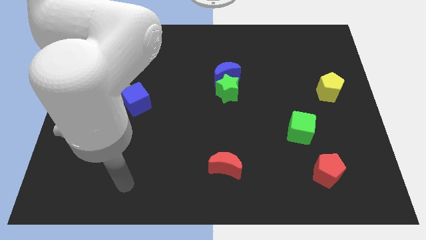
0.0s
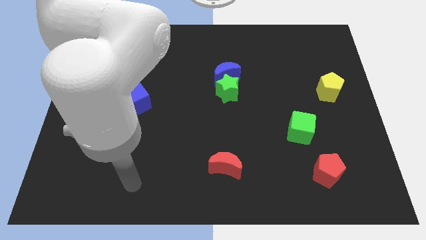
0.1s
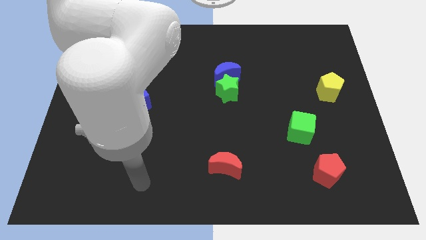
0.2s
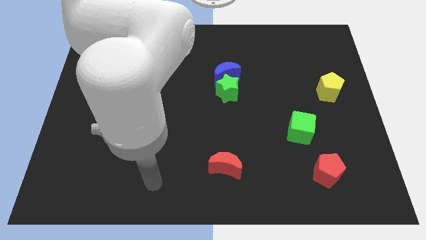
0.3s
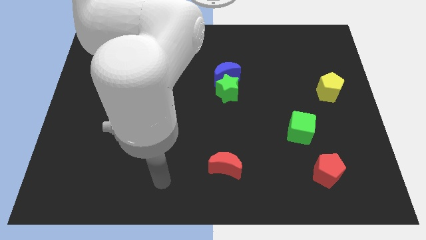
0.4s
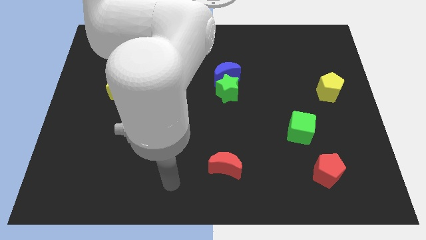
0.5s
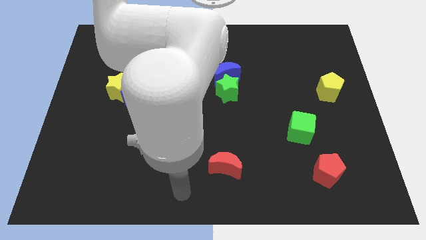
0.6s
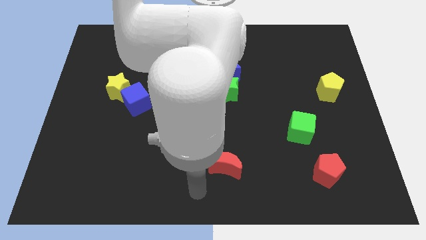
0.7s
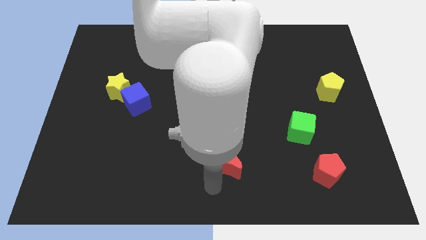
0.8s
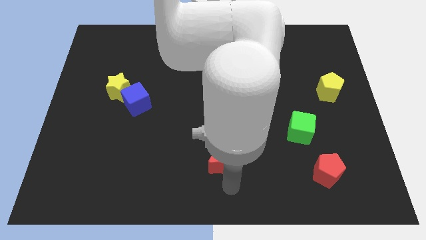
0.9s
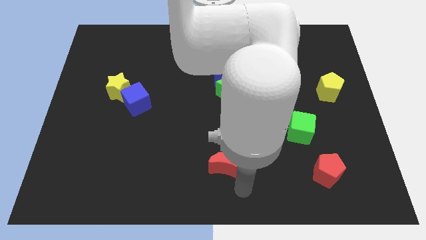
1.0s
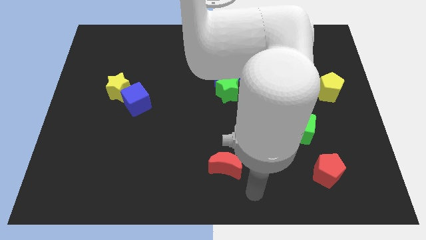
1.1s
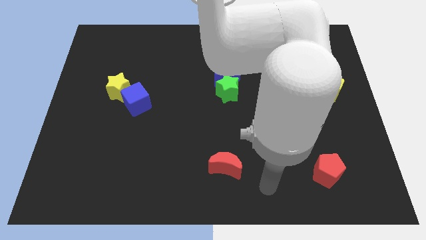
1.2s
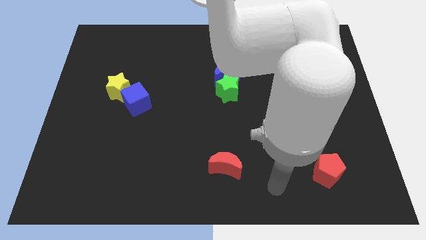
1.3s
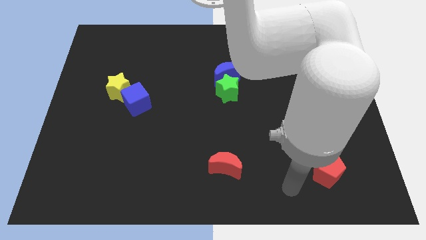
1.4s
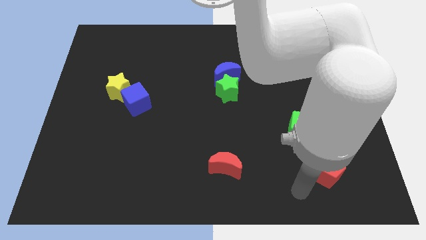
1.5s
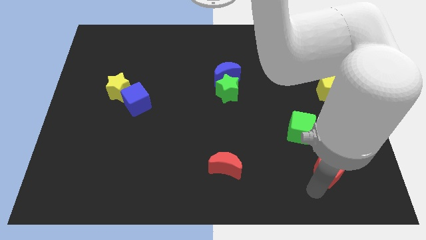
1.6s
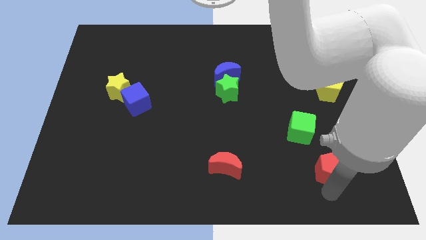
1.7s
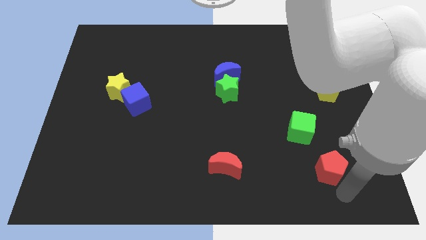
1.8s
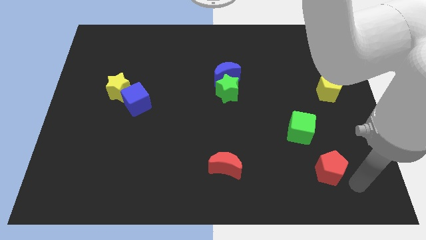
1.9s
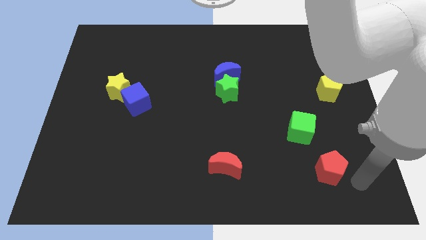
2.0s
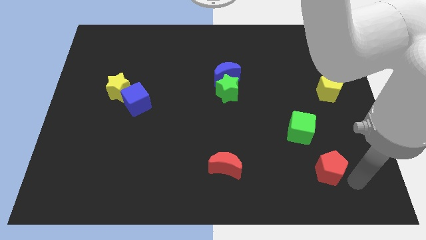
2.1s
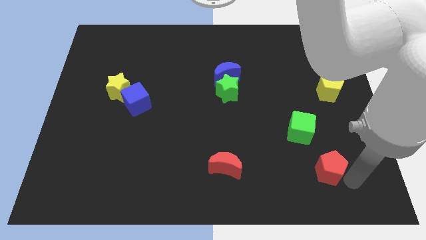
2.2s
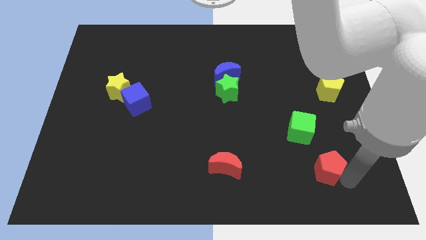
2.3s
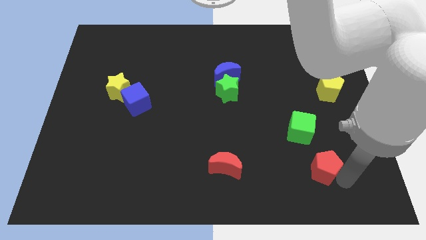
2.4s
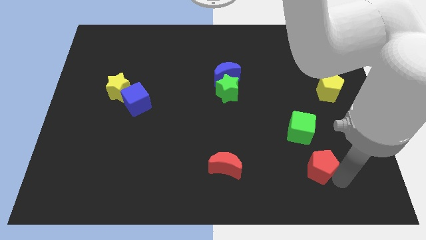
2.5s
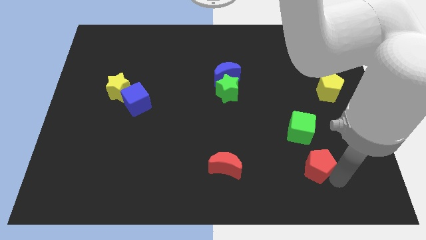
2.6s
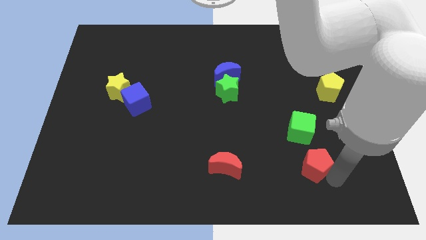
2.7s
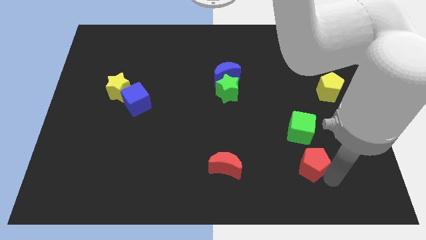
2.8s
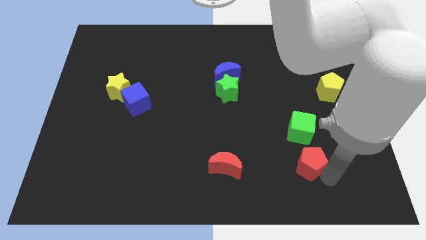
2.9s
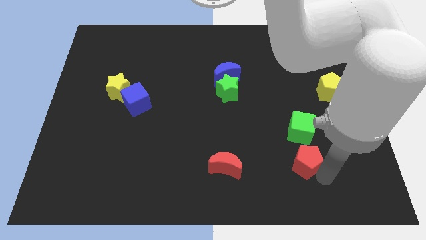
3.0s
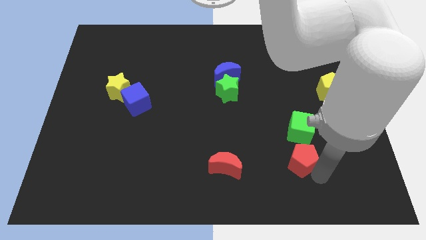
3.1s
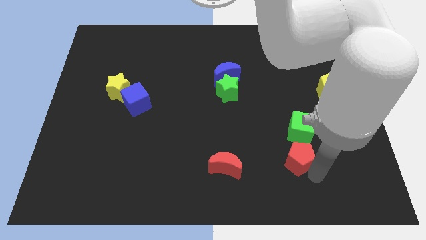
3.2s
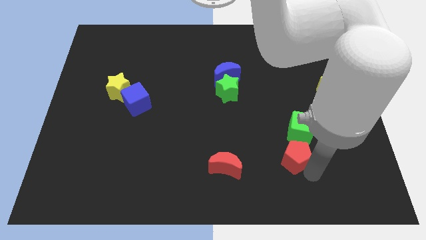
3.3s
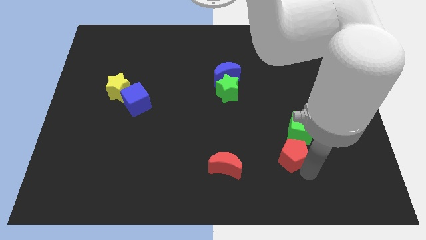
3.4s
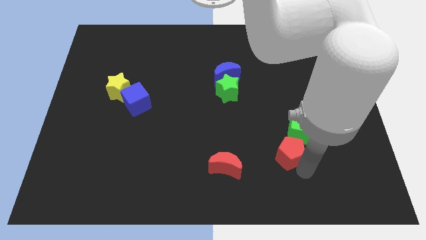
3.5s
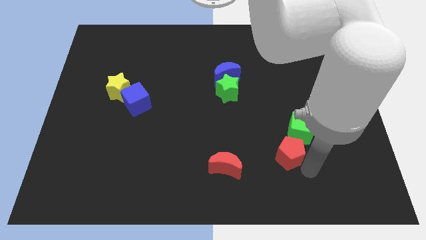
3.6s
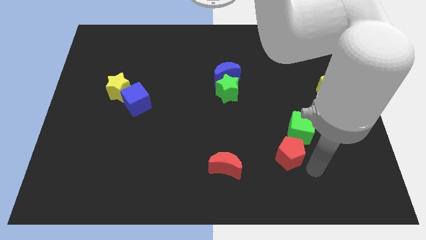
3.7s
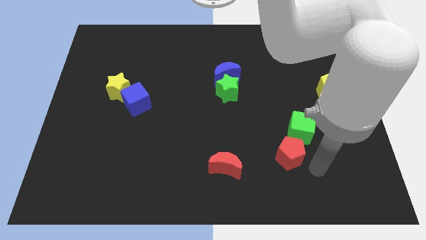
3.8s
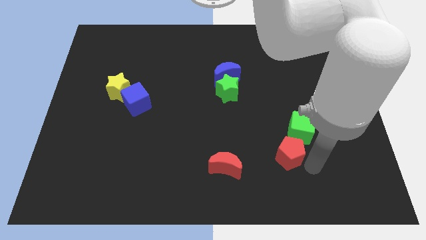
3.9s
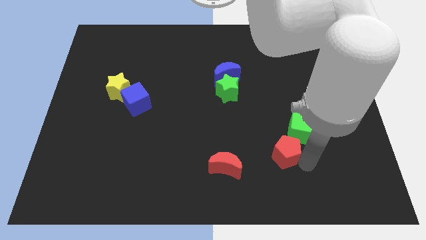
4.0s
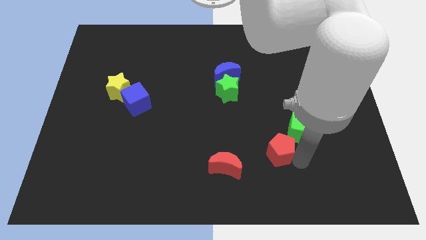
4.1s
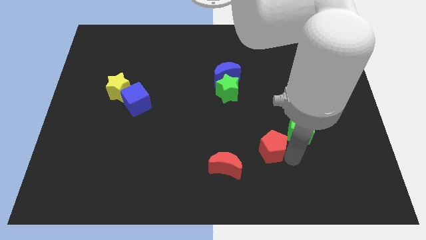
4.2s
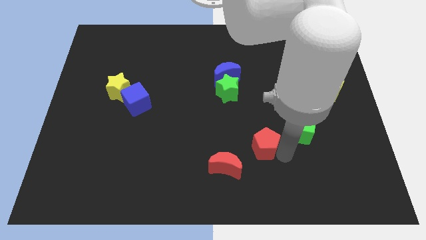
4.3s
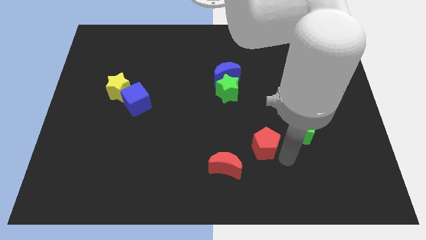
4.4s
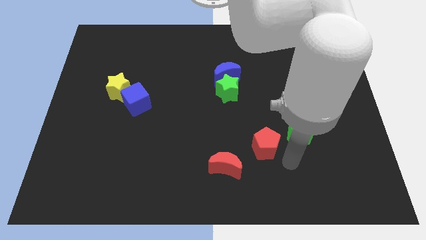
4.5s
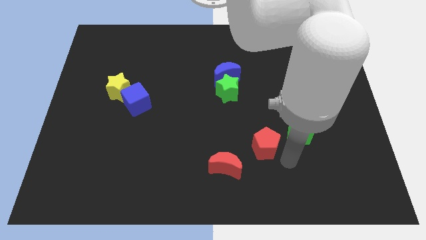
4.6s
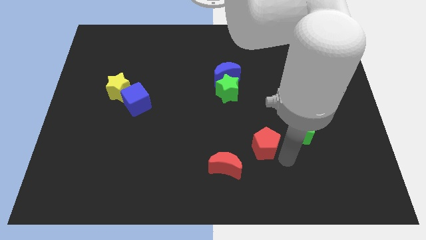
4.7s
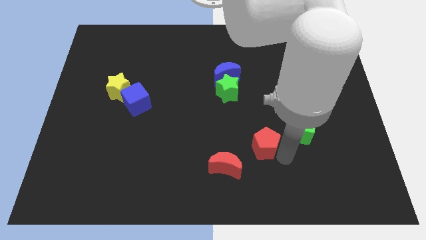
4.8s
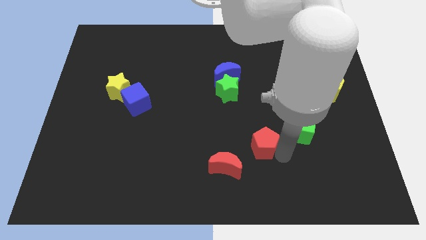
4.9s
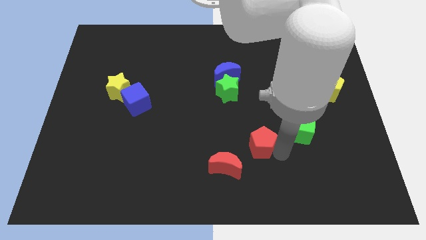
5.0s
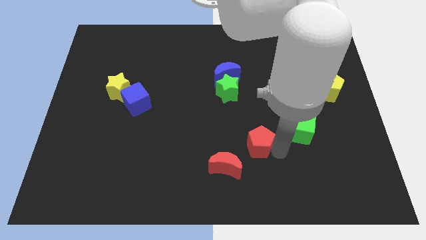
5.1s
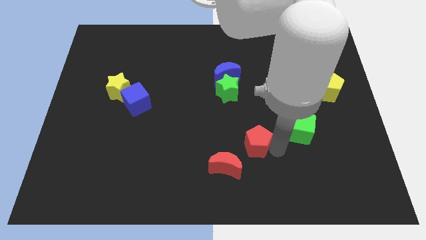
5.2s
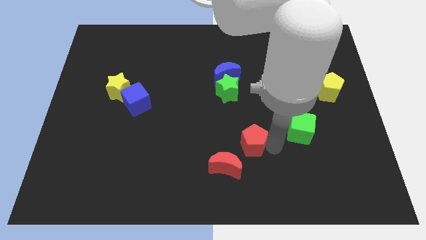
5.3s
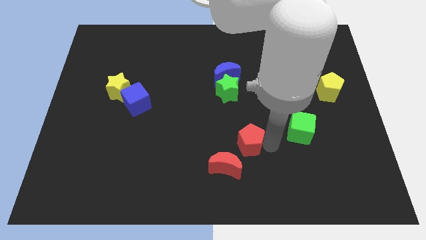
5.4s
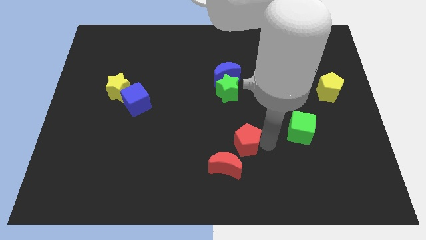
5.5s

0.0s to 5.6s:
put the red pentagon to the top side of the red moon

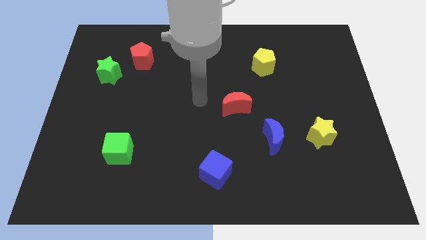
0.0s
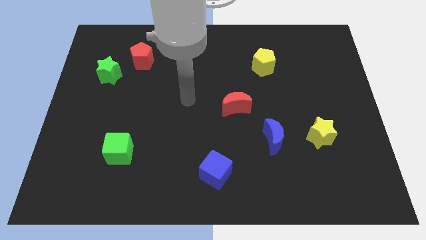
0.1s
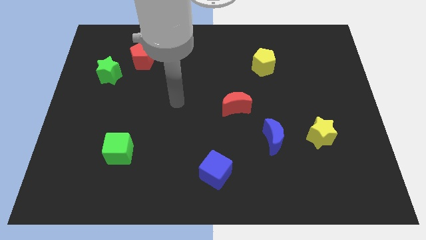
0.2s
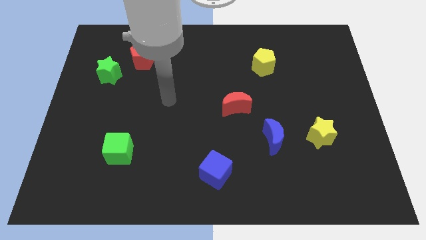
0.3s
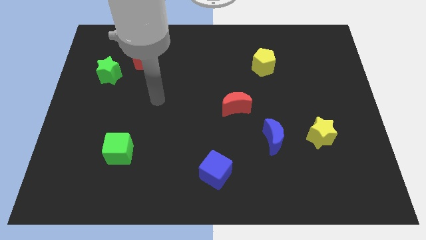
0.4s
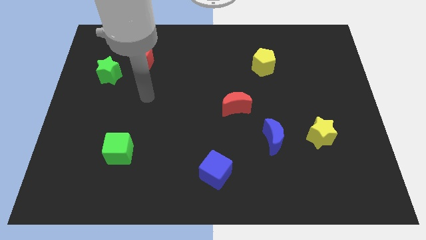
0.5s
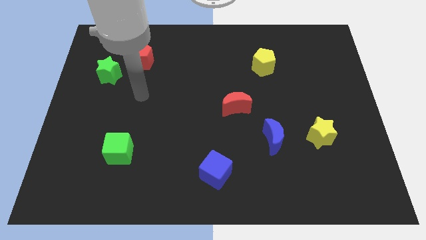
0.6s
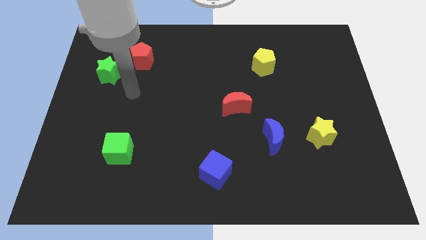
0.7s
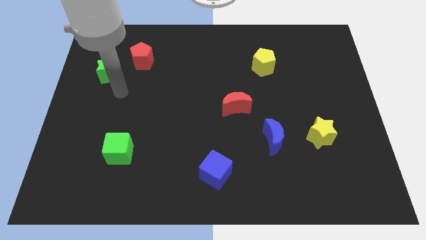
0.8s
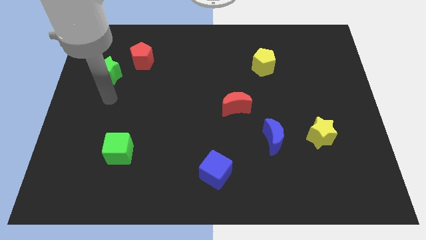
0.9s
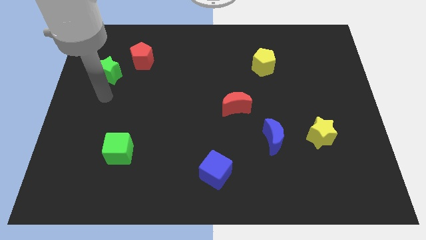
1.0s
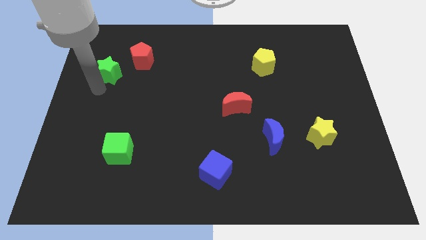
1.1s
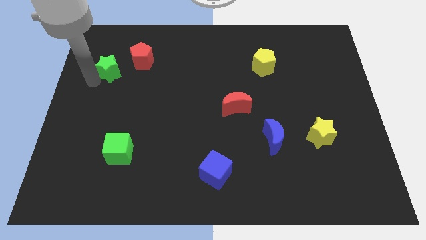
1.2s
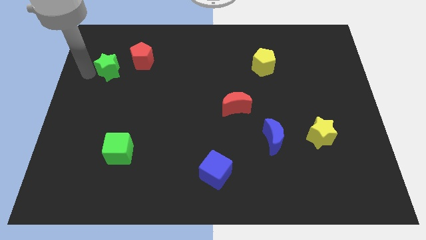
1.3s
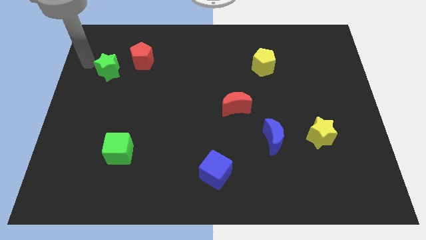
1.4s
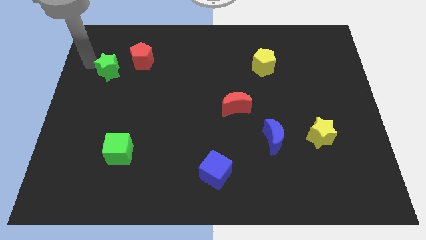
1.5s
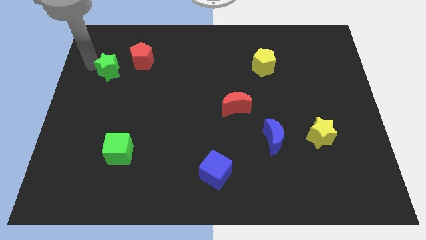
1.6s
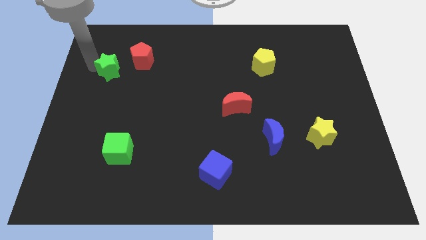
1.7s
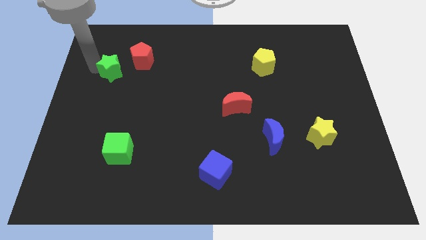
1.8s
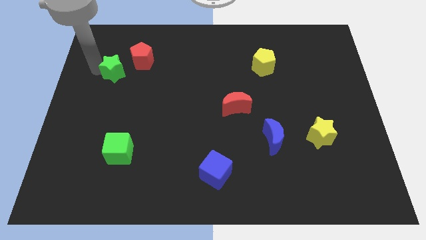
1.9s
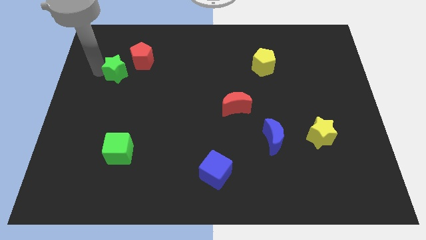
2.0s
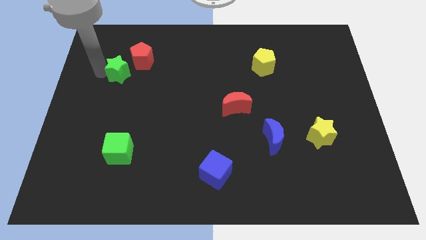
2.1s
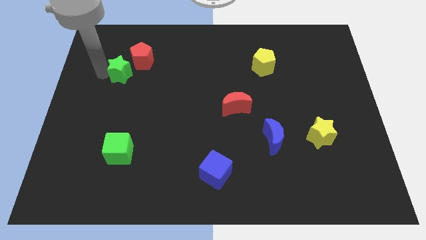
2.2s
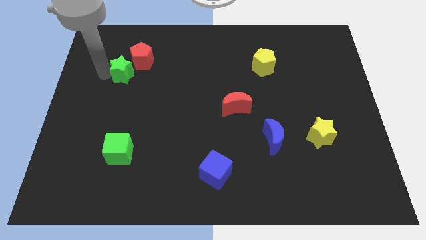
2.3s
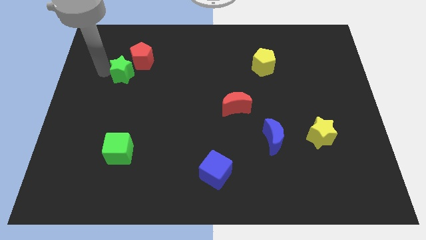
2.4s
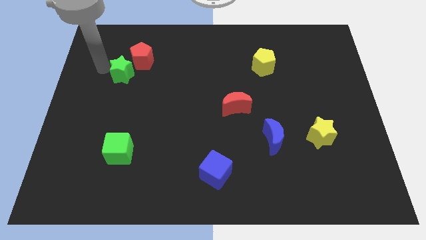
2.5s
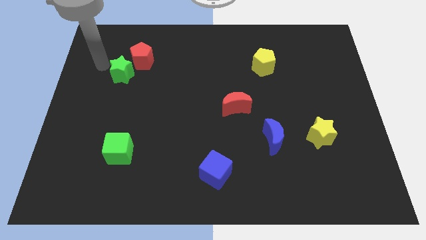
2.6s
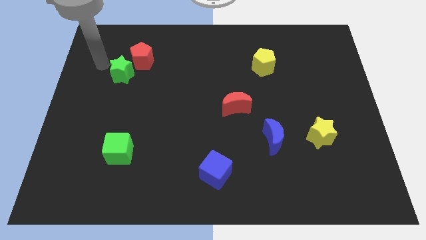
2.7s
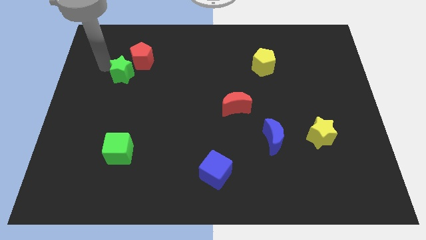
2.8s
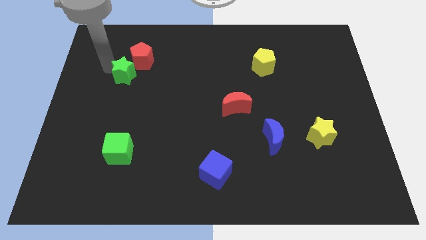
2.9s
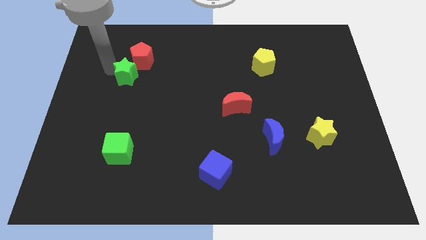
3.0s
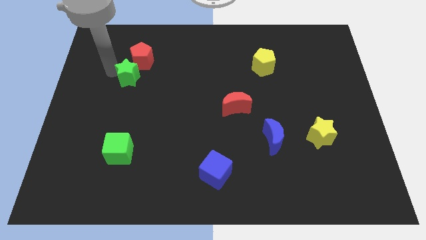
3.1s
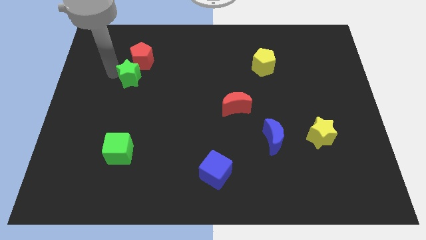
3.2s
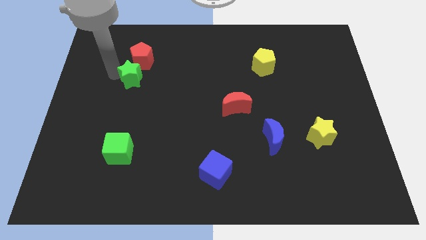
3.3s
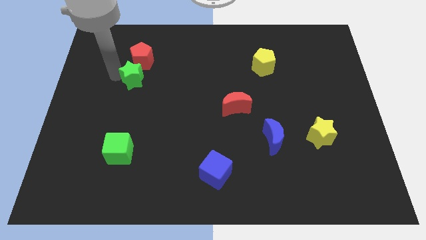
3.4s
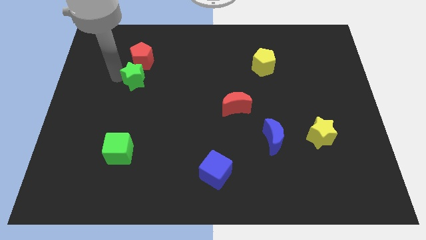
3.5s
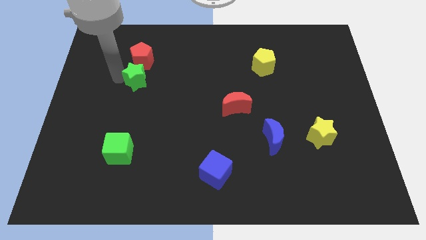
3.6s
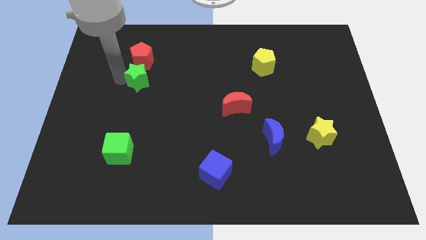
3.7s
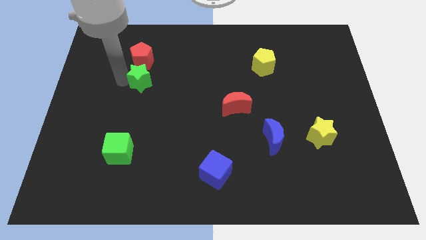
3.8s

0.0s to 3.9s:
push the green star to the bottom right of the red pentagon
